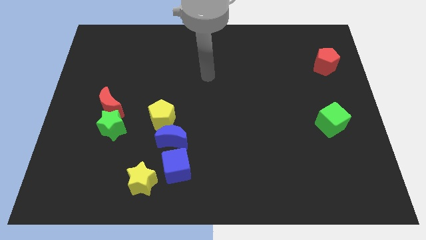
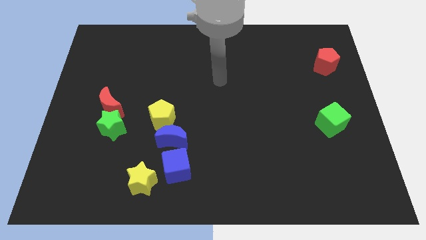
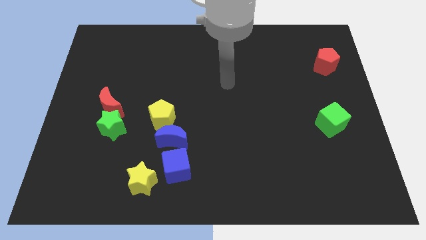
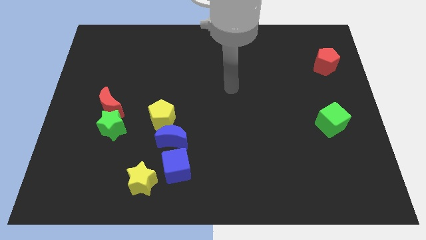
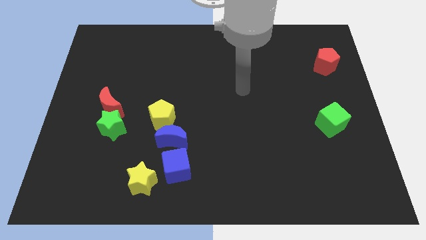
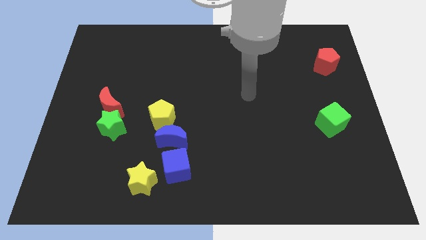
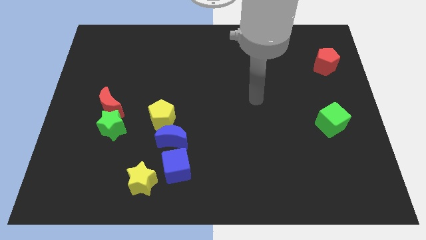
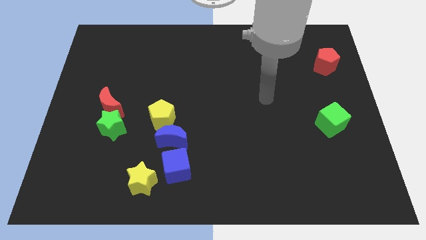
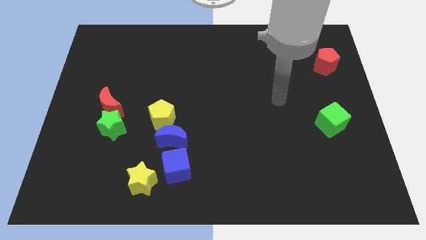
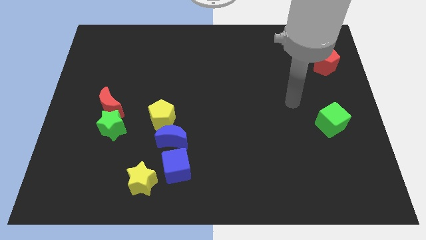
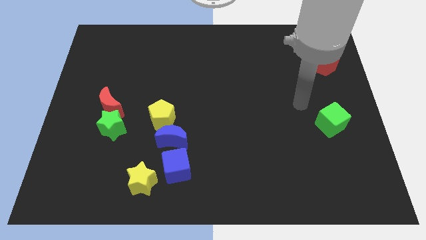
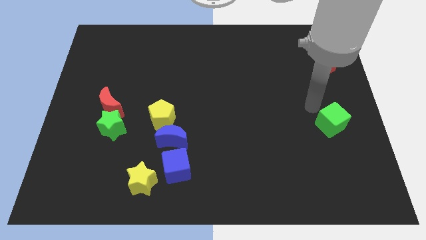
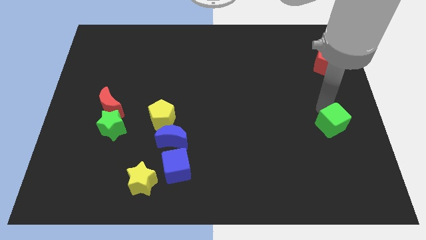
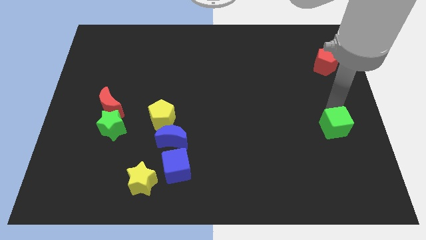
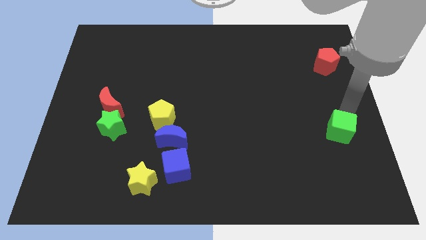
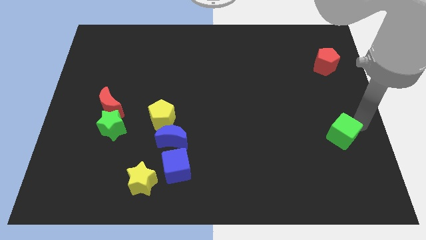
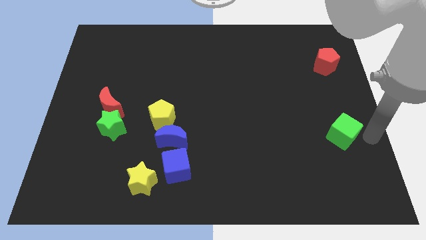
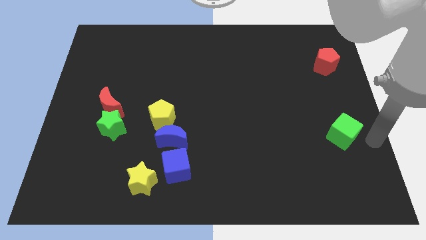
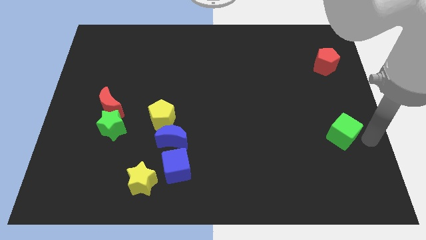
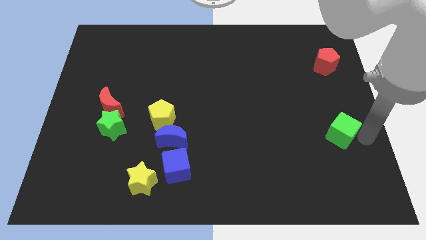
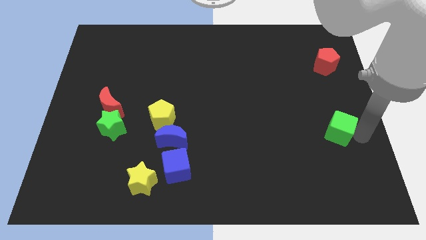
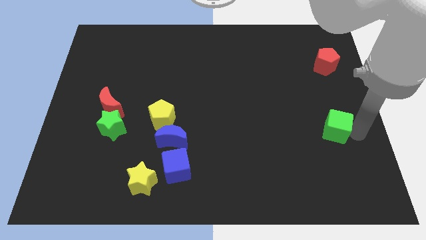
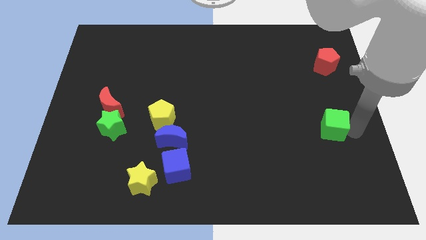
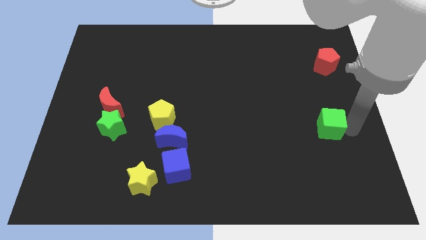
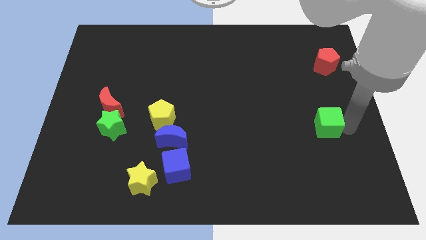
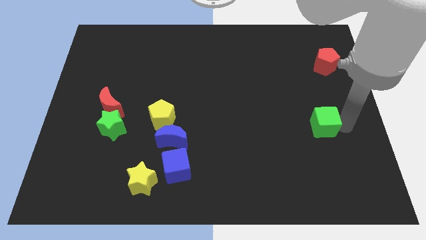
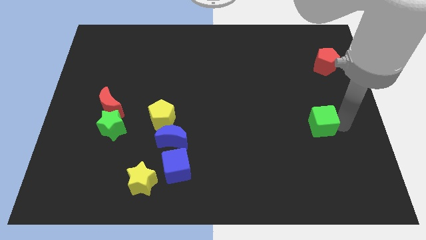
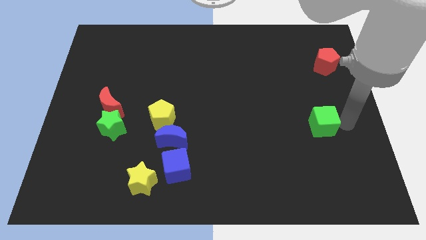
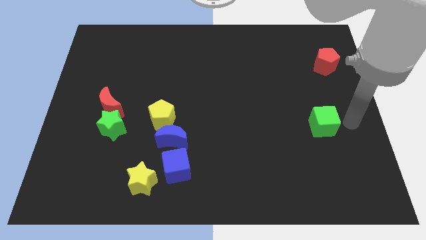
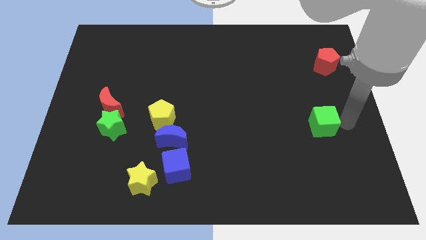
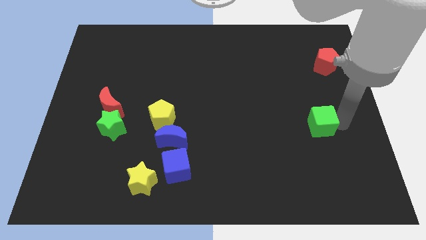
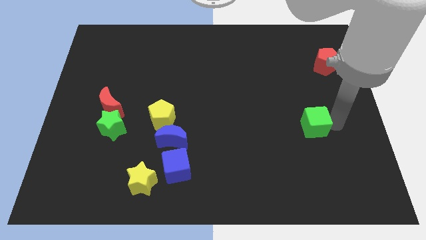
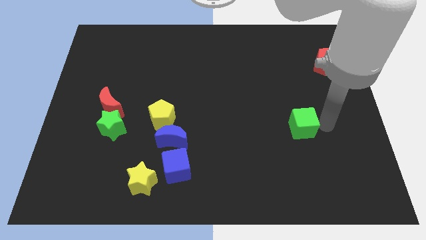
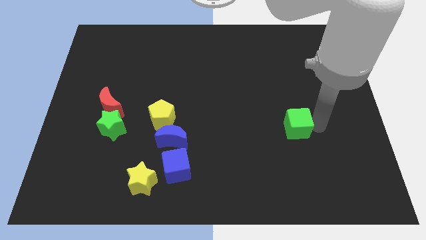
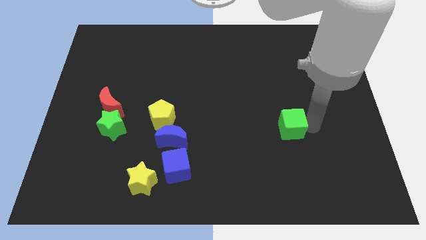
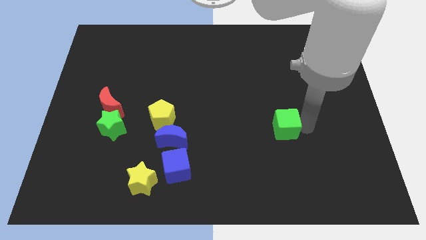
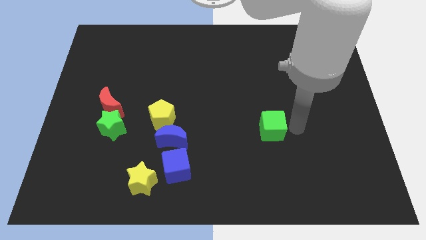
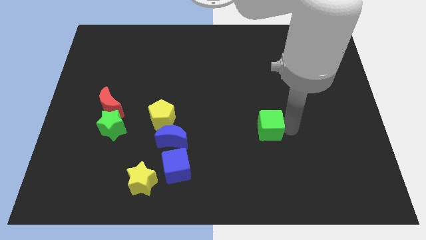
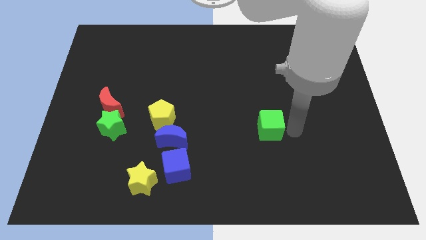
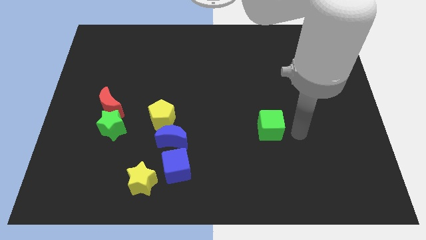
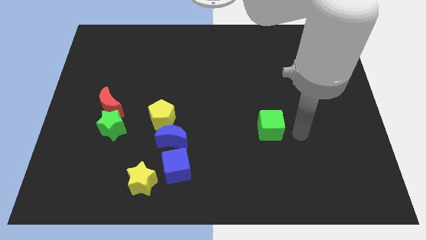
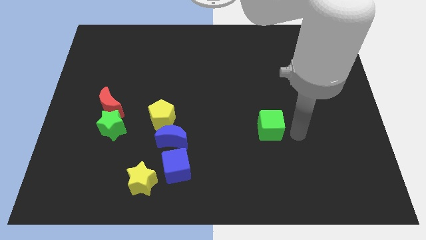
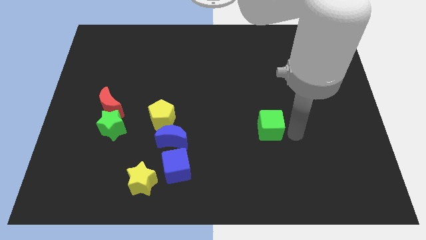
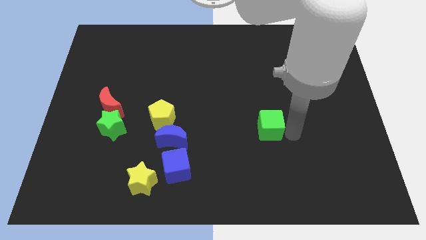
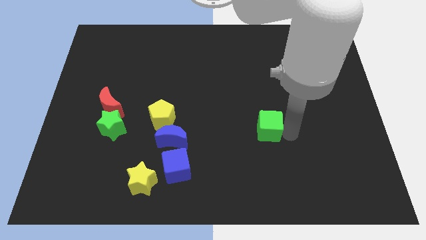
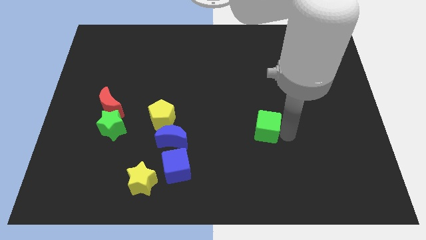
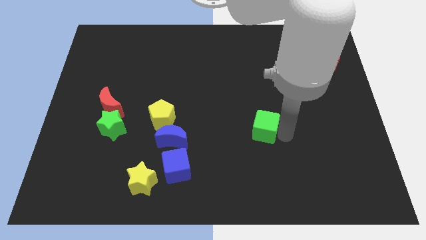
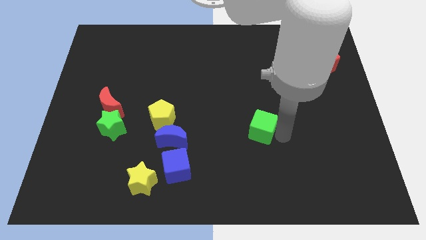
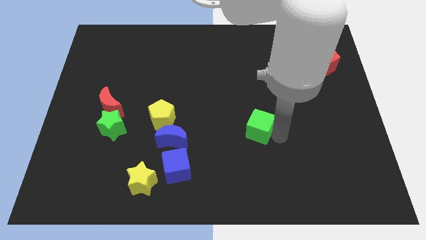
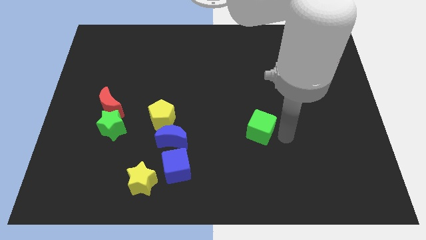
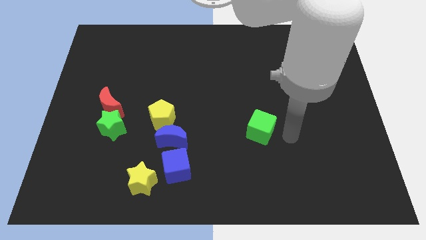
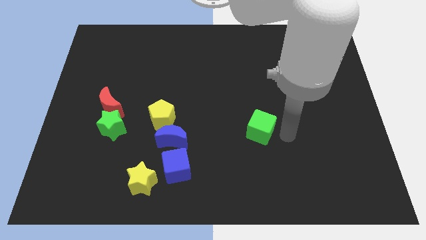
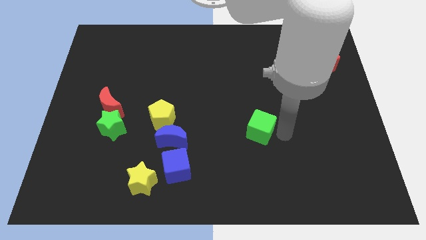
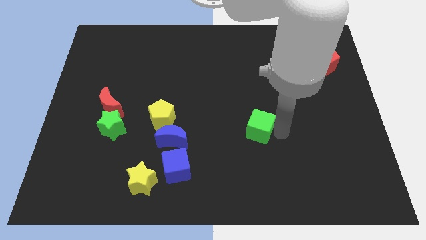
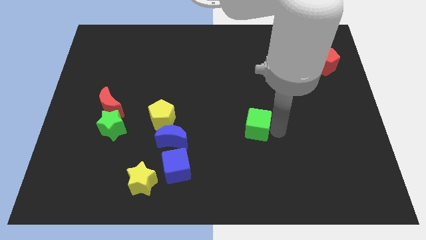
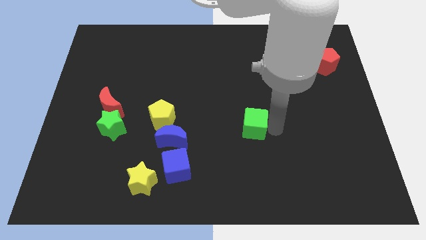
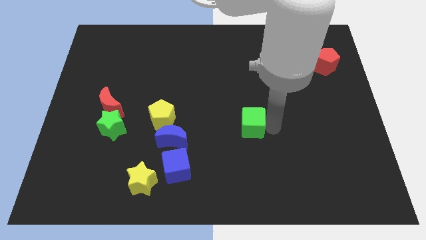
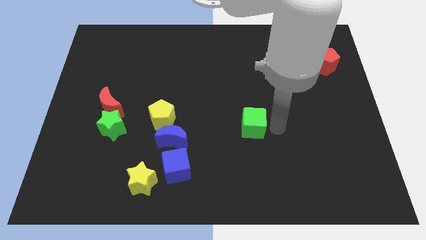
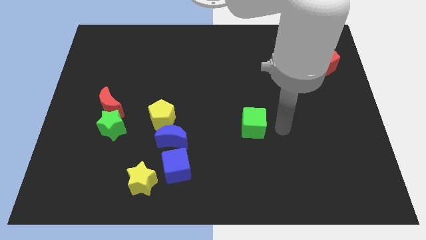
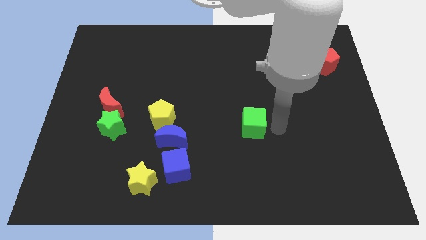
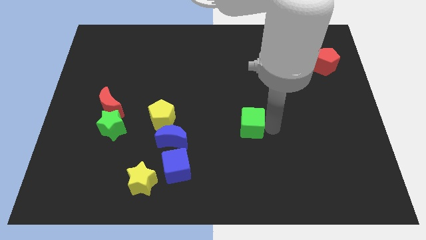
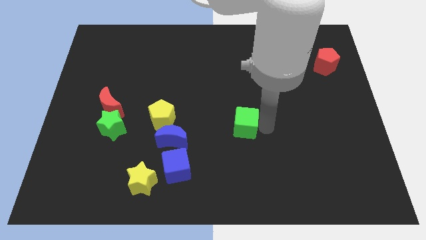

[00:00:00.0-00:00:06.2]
slide the green cube left

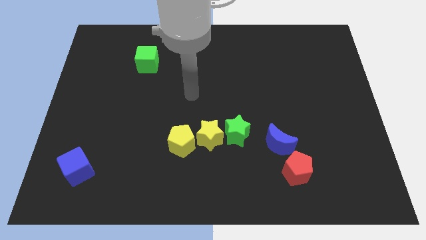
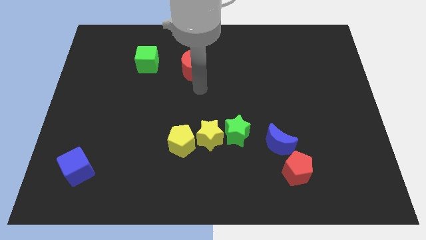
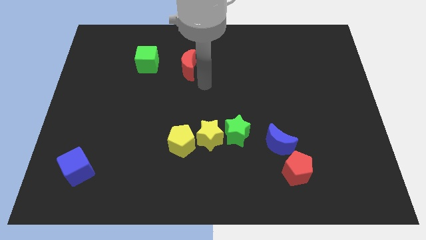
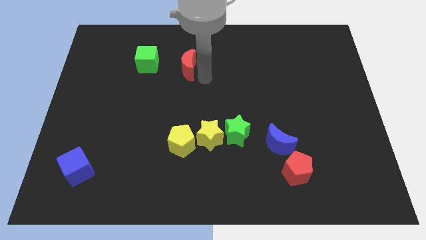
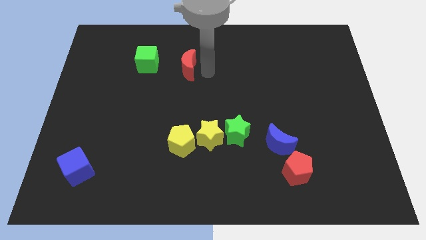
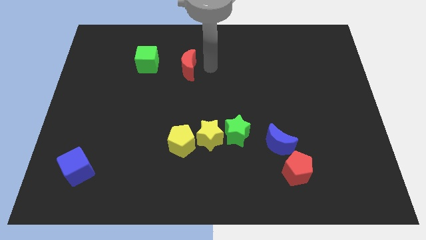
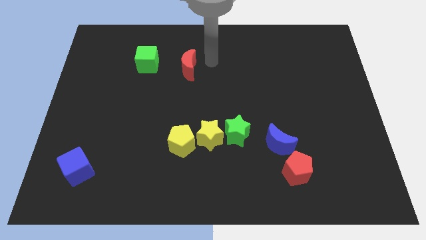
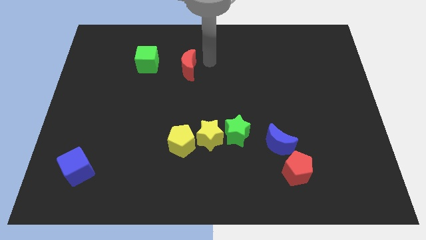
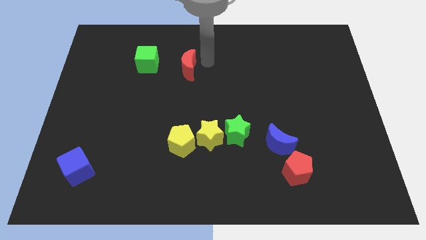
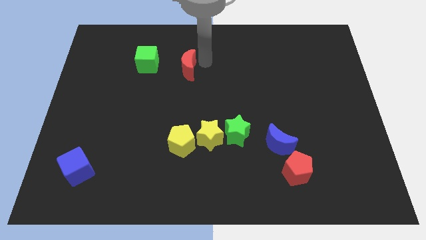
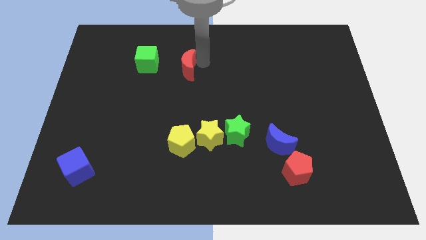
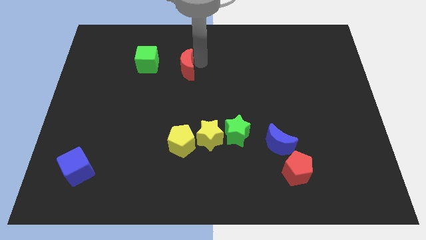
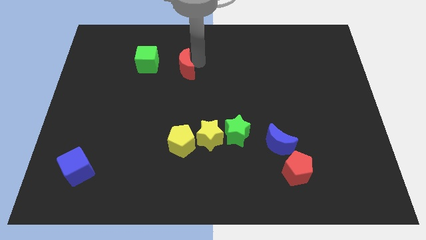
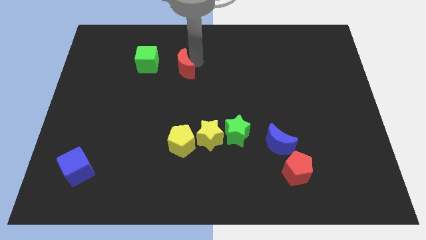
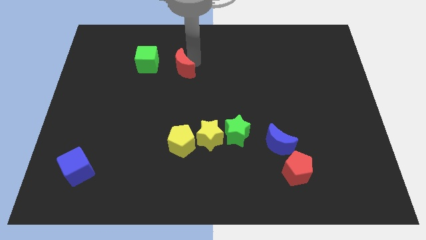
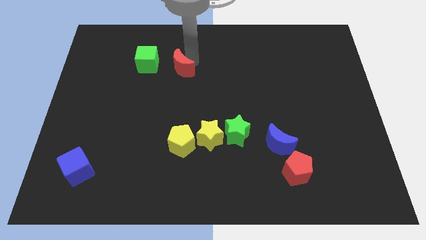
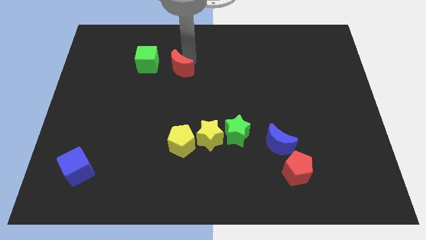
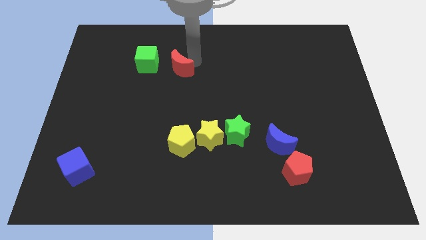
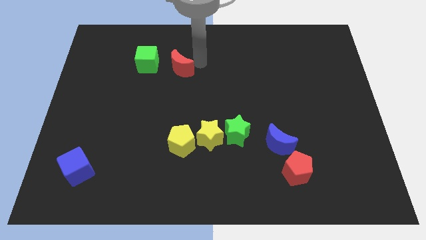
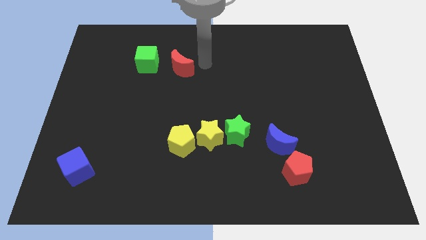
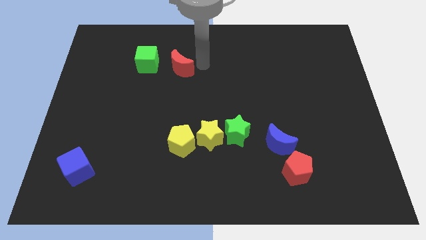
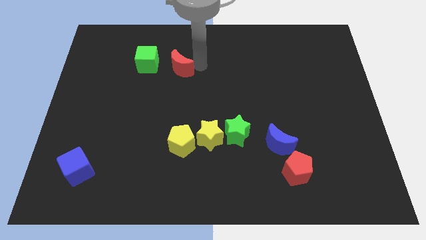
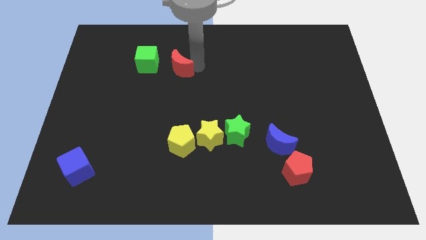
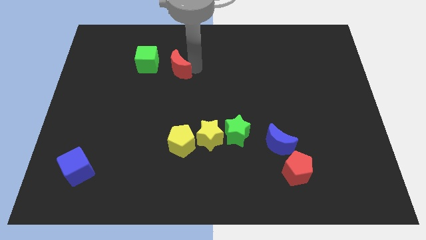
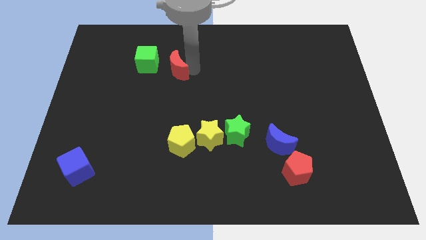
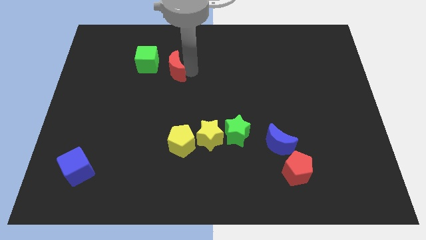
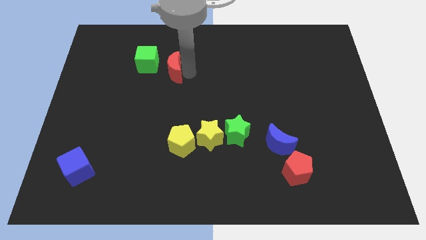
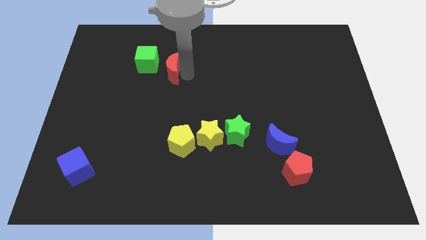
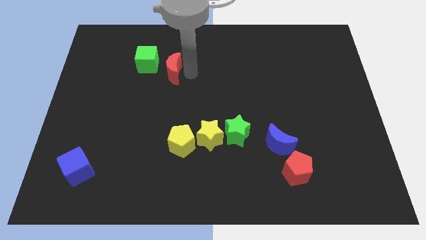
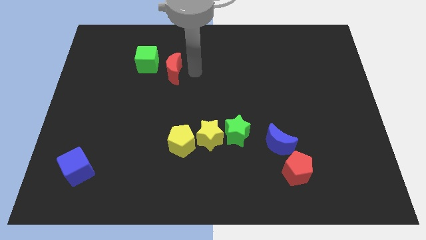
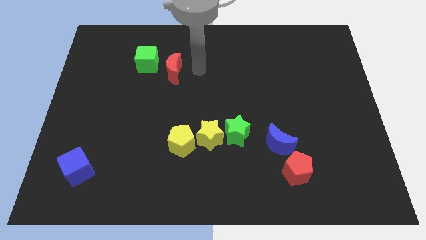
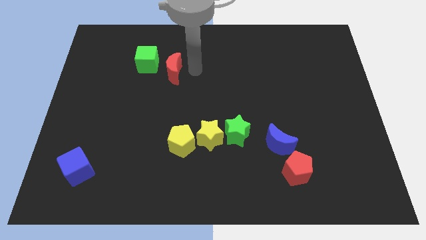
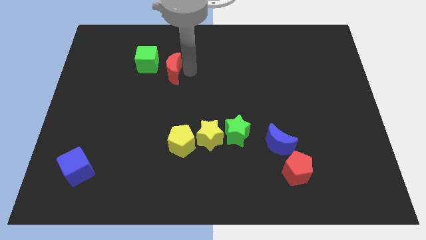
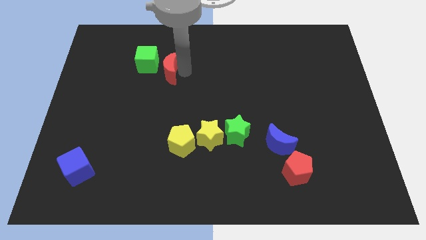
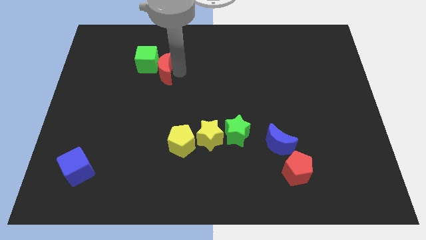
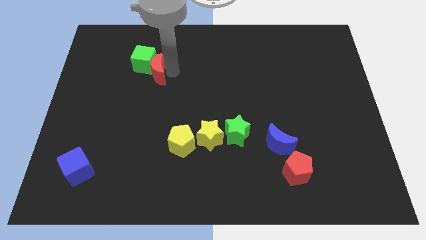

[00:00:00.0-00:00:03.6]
push the red moon left a little
